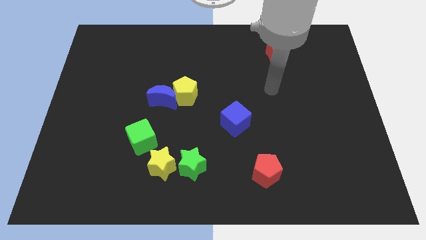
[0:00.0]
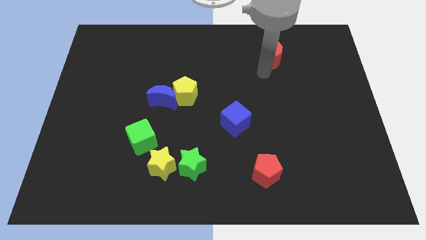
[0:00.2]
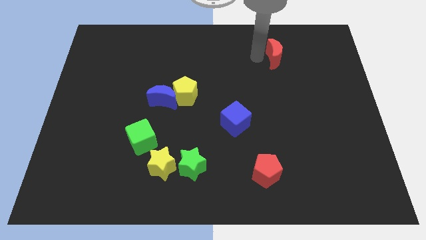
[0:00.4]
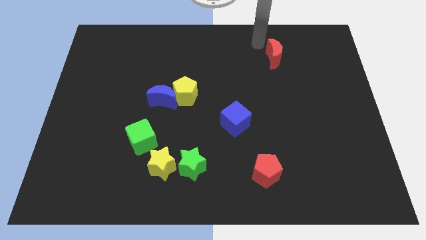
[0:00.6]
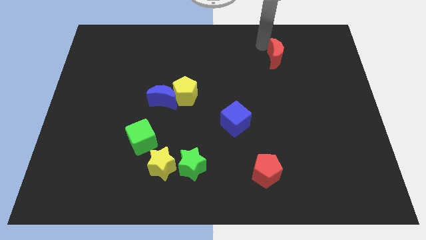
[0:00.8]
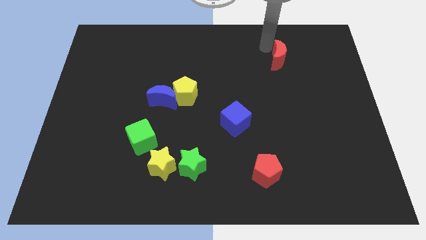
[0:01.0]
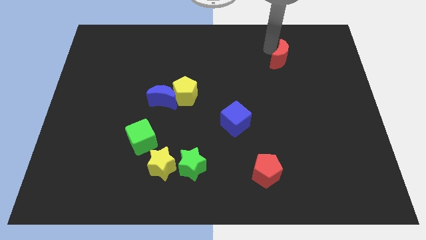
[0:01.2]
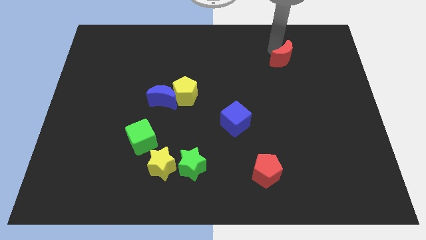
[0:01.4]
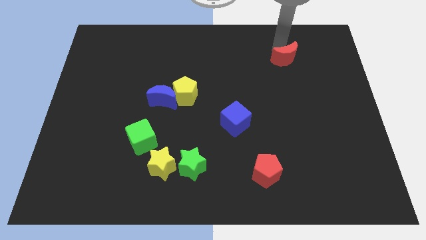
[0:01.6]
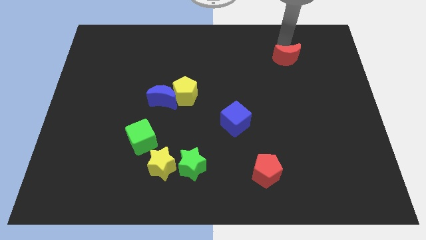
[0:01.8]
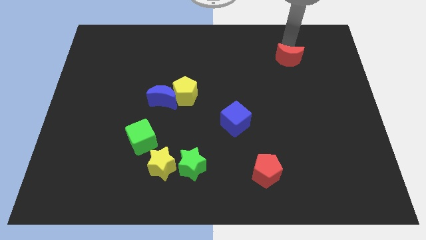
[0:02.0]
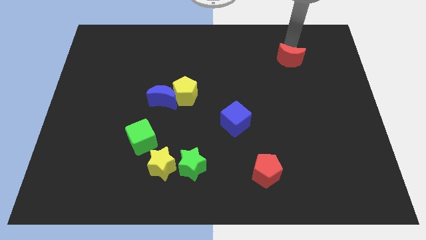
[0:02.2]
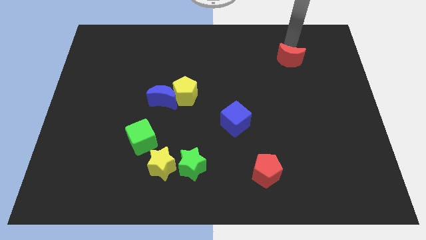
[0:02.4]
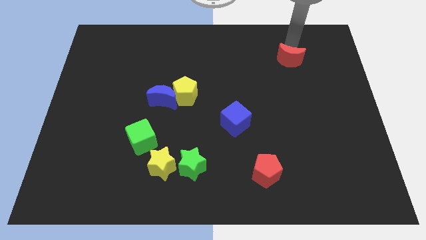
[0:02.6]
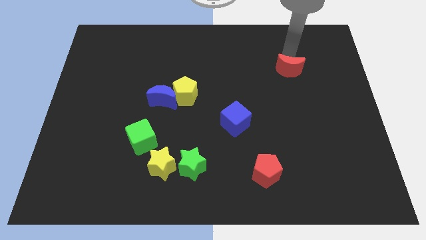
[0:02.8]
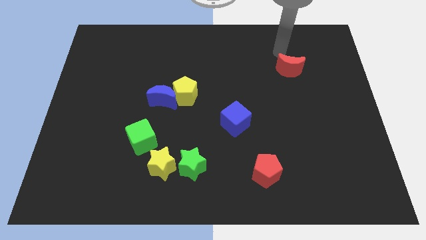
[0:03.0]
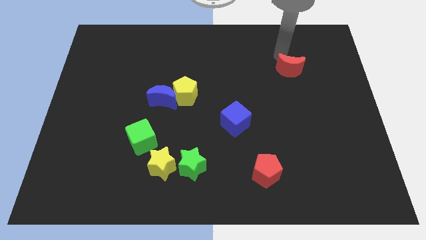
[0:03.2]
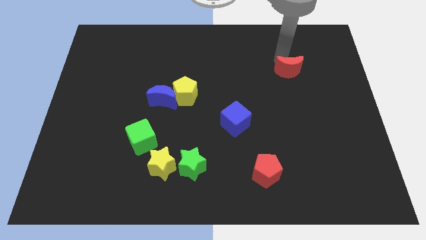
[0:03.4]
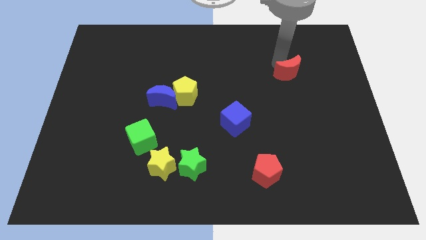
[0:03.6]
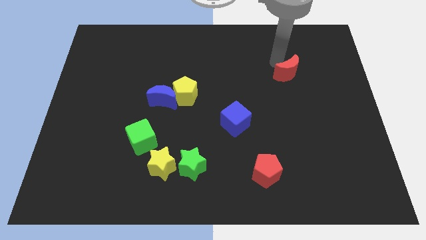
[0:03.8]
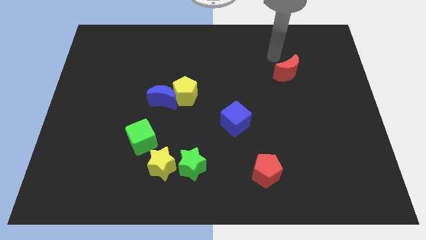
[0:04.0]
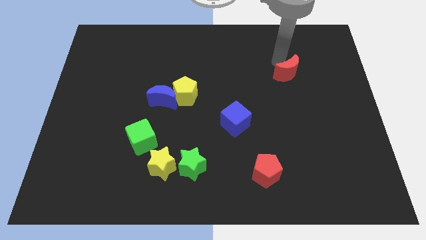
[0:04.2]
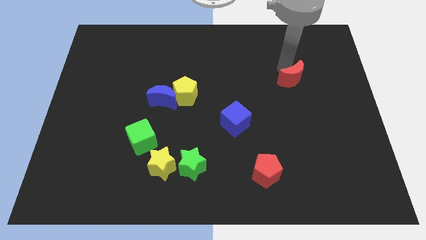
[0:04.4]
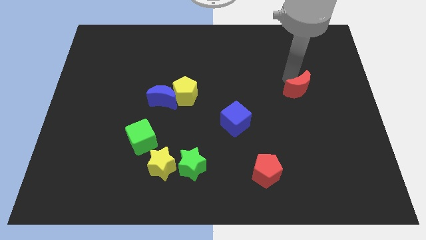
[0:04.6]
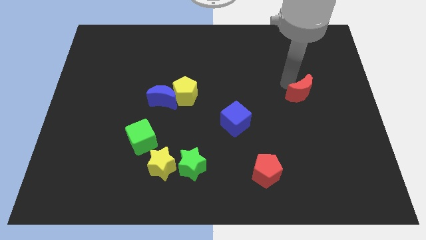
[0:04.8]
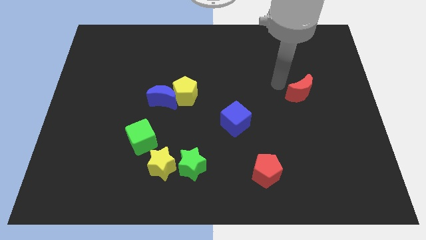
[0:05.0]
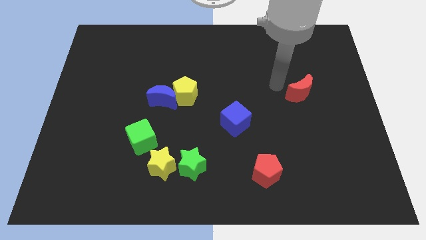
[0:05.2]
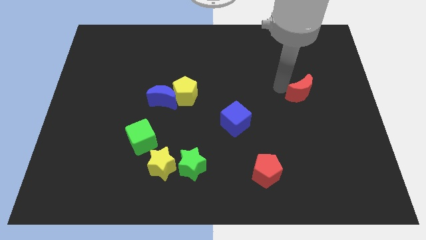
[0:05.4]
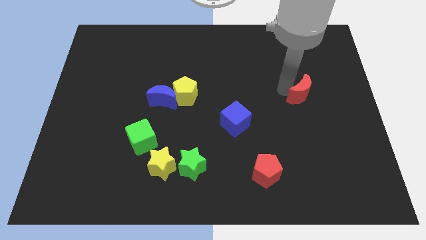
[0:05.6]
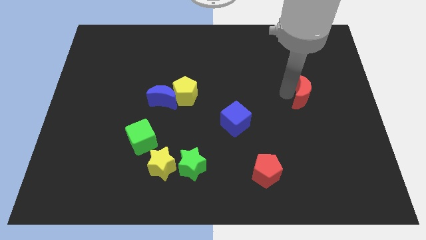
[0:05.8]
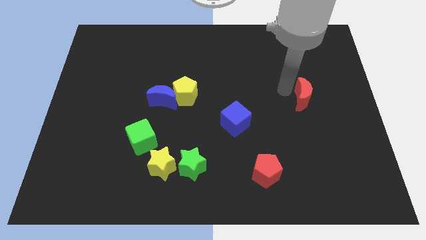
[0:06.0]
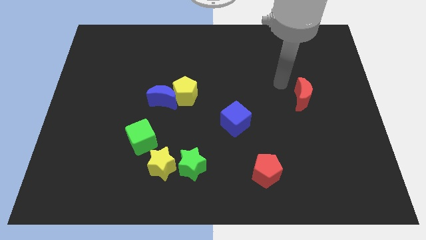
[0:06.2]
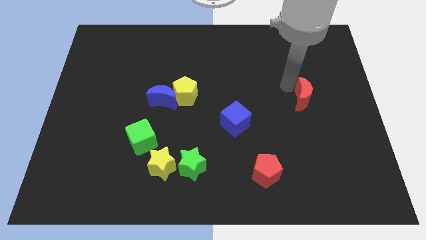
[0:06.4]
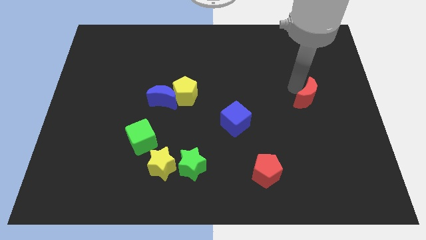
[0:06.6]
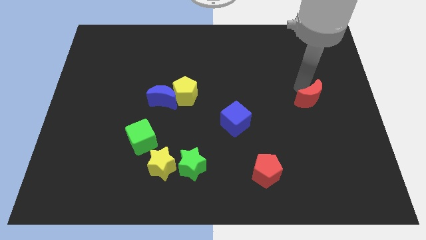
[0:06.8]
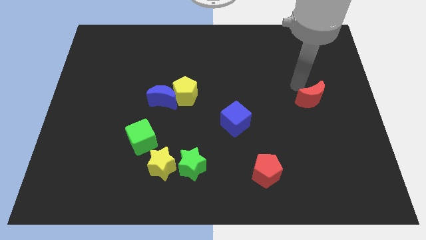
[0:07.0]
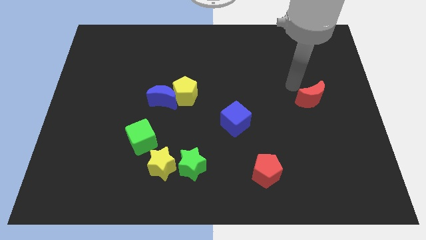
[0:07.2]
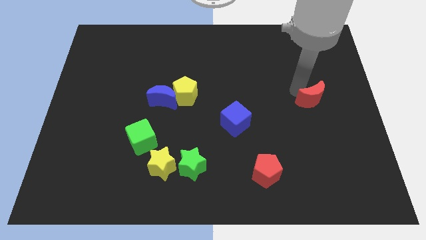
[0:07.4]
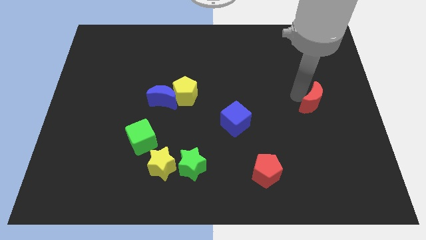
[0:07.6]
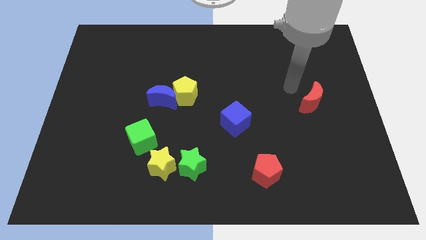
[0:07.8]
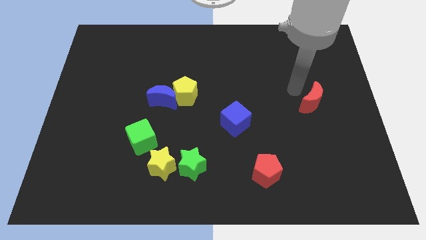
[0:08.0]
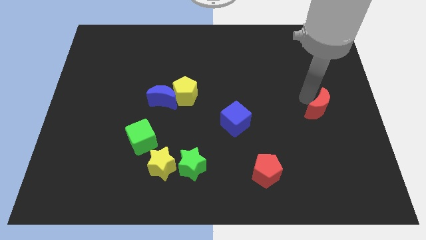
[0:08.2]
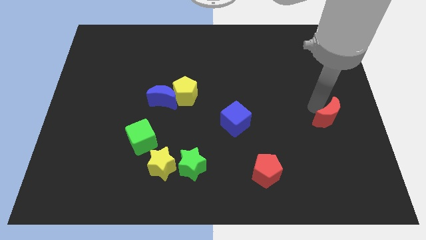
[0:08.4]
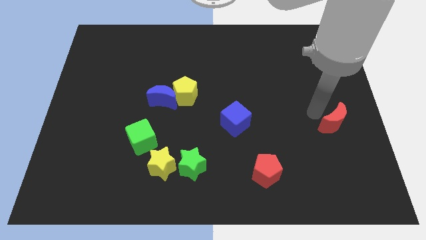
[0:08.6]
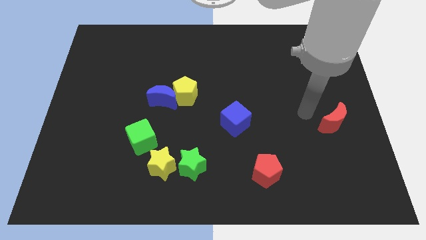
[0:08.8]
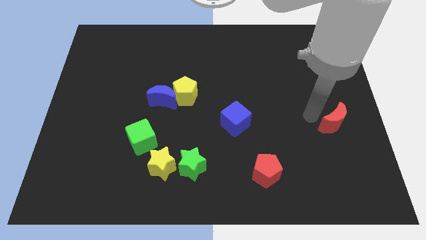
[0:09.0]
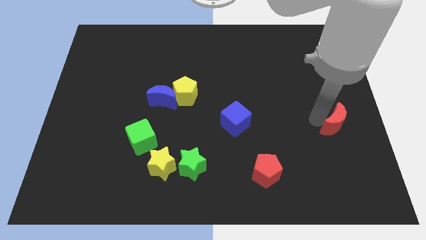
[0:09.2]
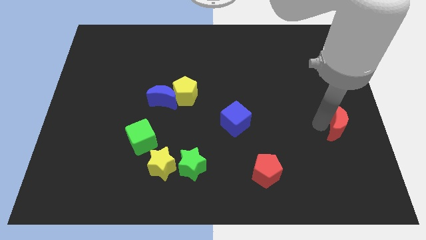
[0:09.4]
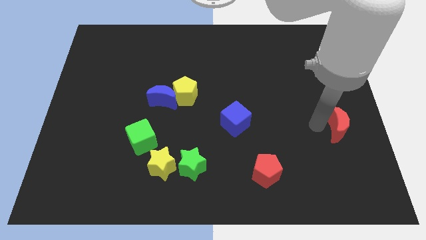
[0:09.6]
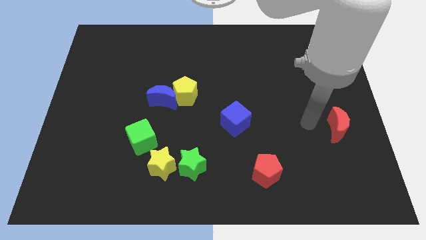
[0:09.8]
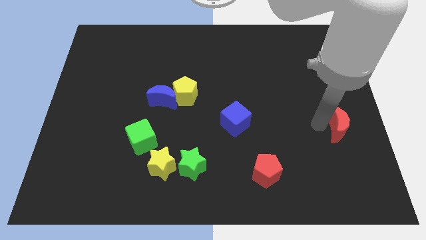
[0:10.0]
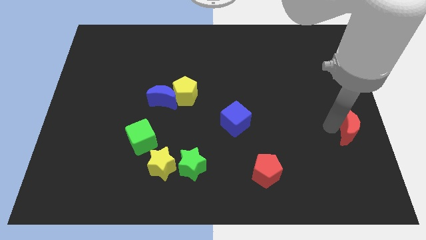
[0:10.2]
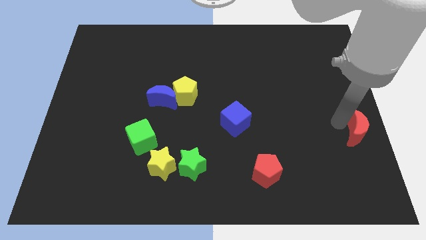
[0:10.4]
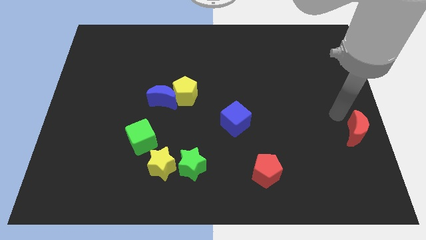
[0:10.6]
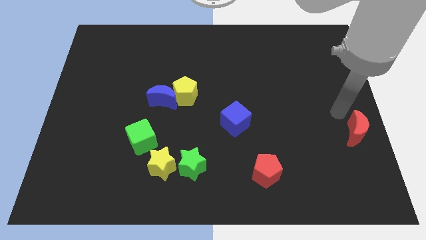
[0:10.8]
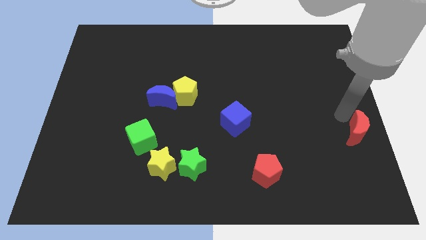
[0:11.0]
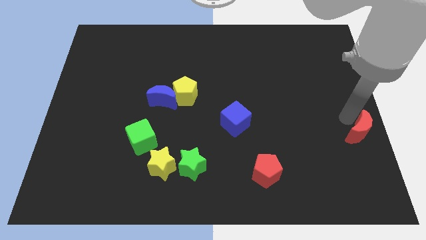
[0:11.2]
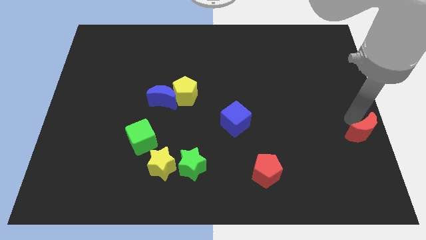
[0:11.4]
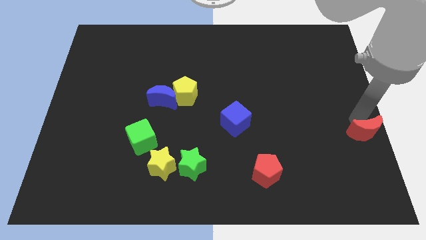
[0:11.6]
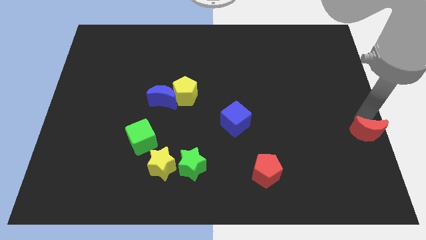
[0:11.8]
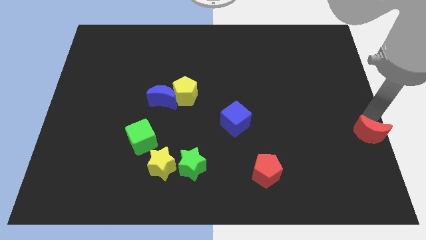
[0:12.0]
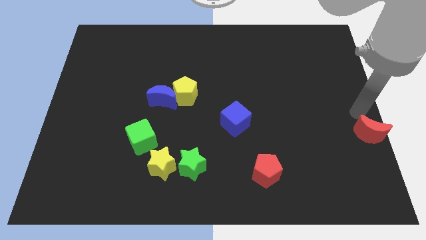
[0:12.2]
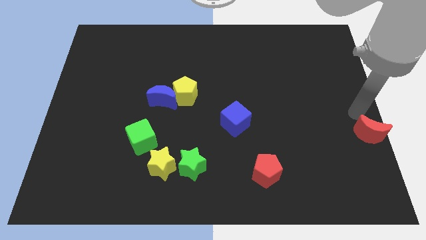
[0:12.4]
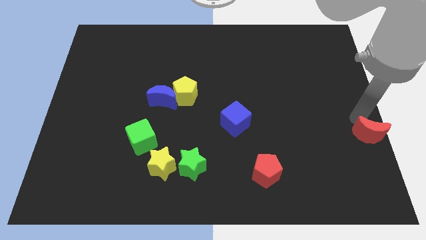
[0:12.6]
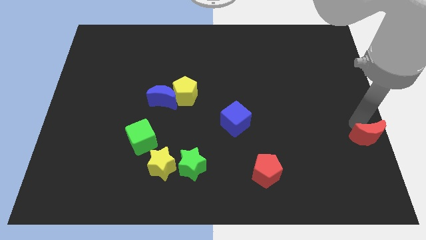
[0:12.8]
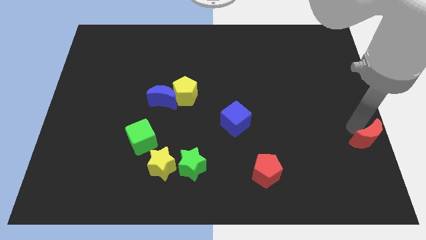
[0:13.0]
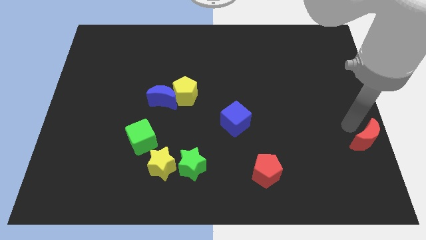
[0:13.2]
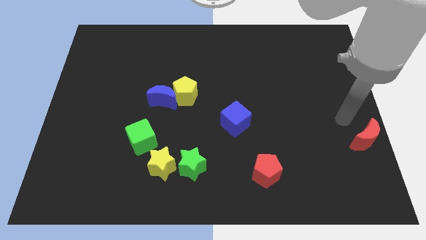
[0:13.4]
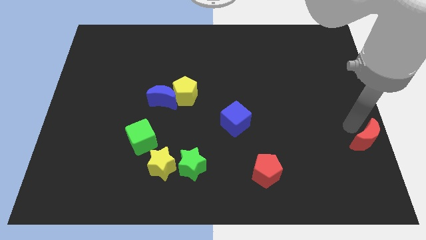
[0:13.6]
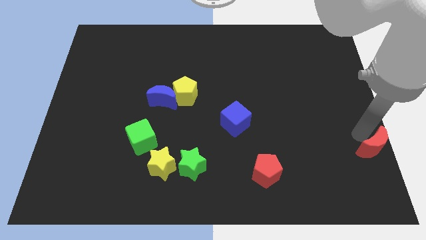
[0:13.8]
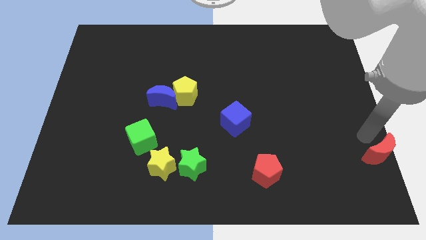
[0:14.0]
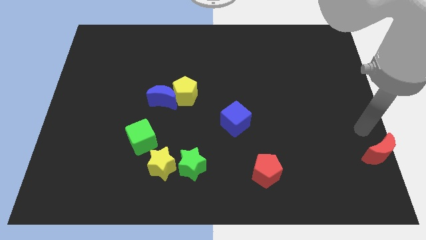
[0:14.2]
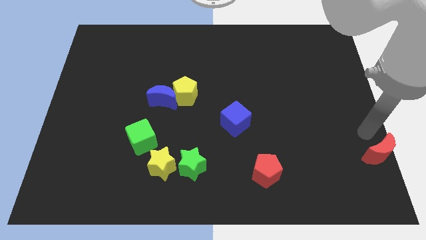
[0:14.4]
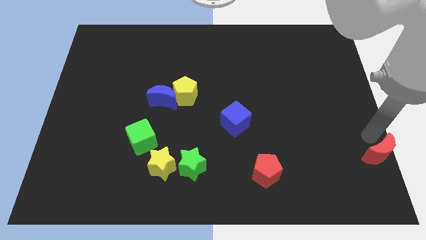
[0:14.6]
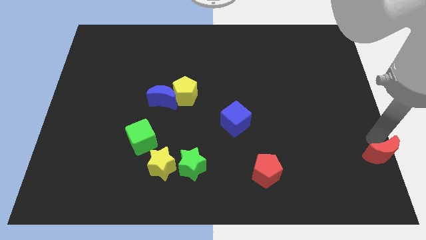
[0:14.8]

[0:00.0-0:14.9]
push the red moon to the bottom right
